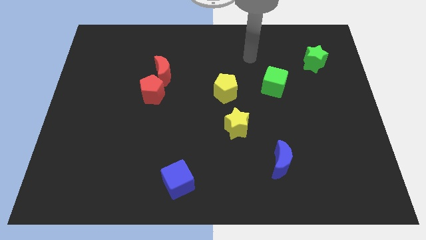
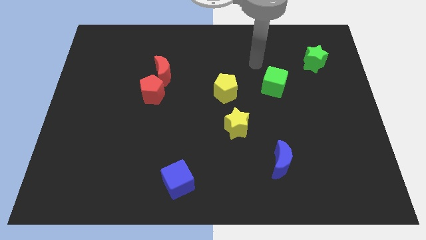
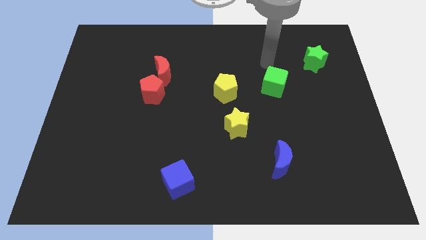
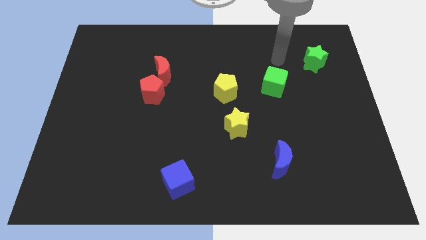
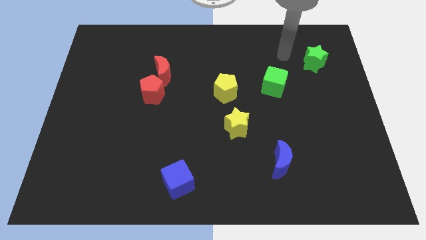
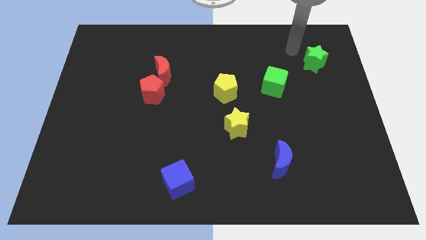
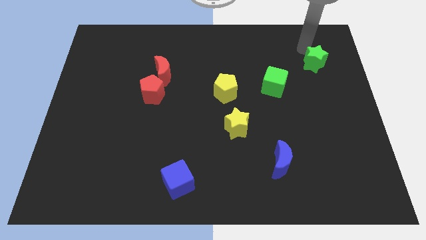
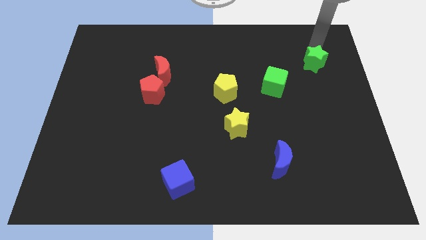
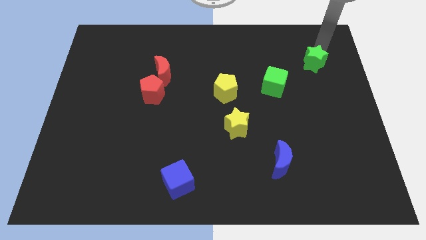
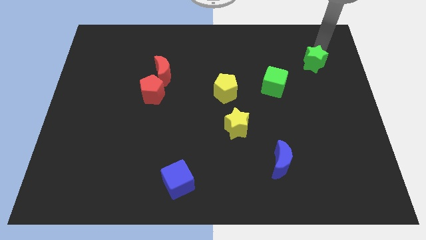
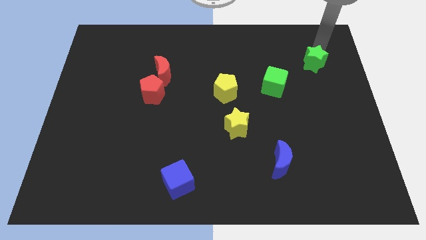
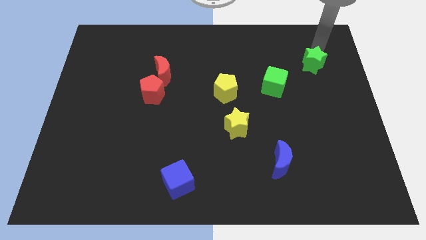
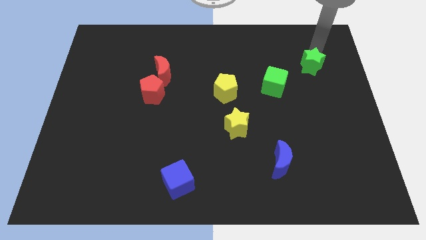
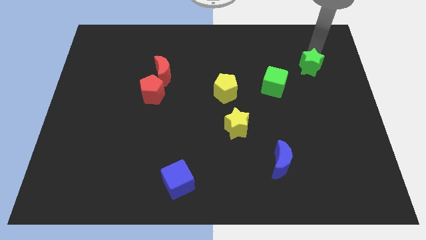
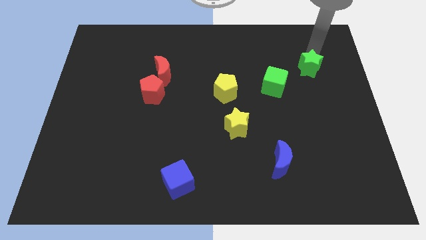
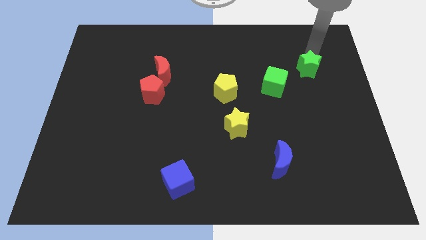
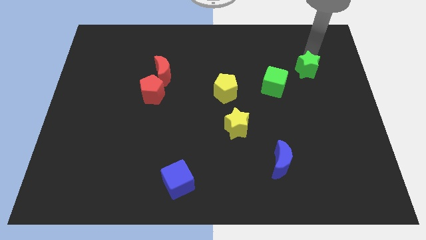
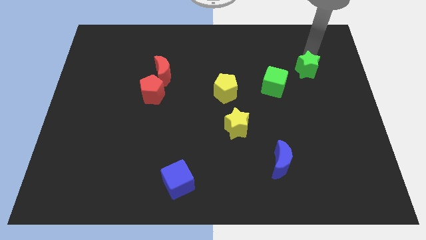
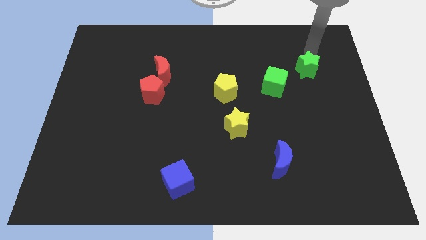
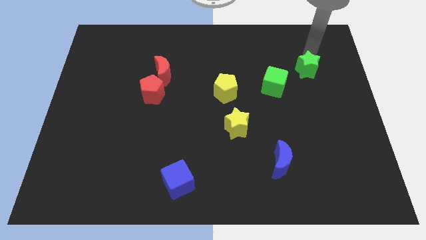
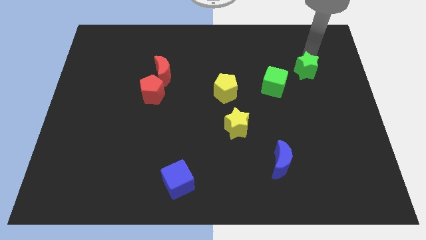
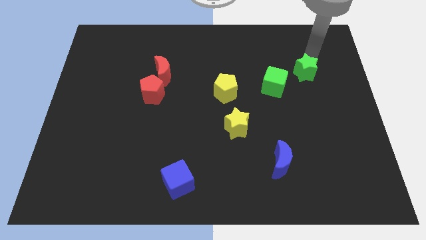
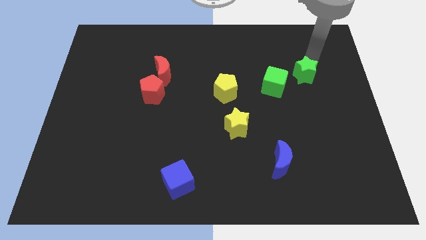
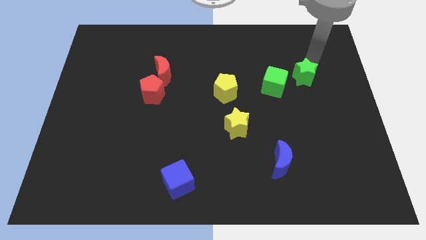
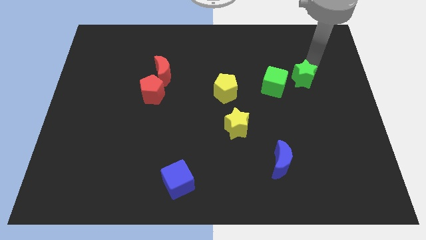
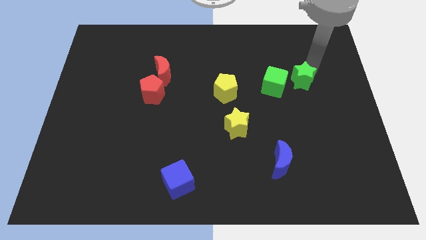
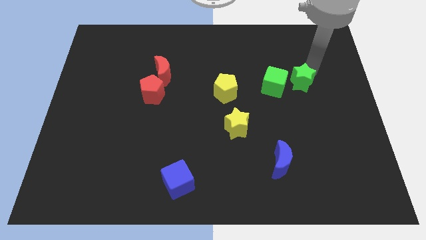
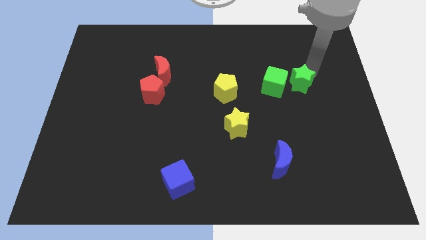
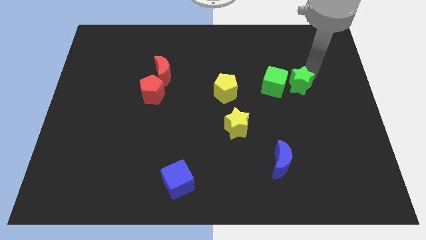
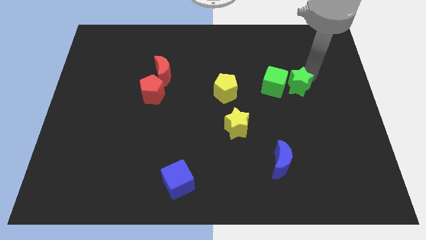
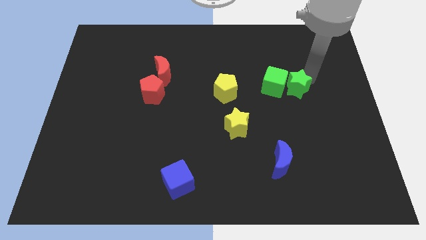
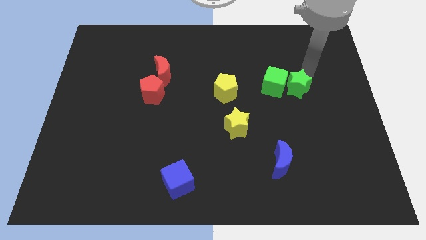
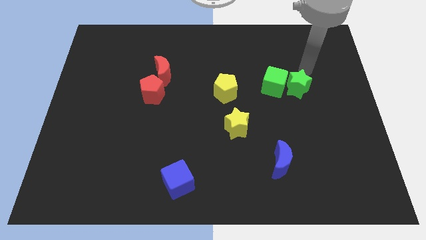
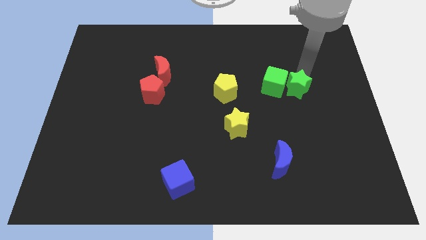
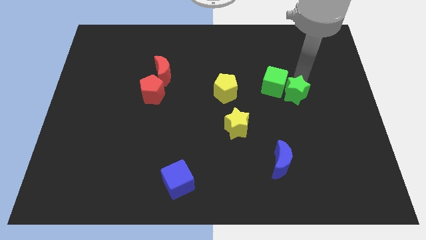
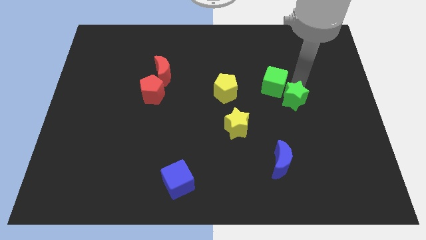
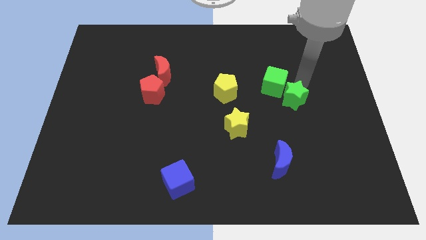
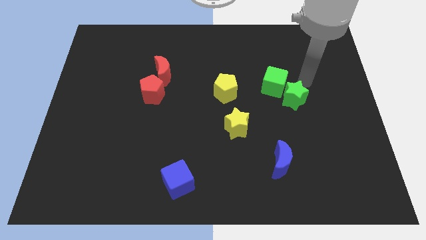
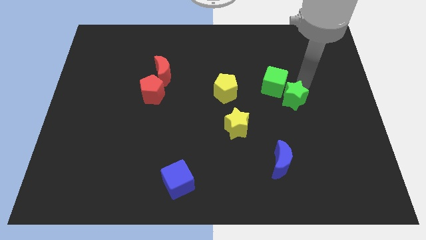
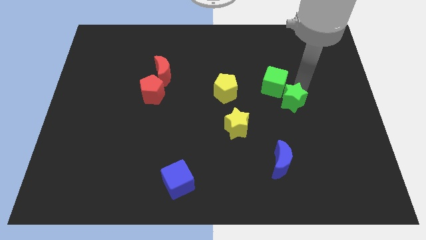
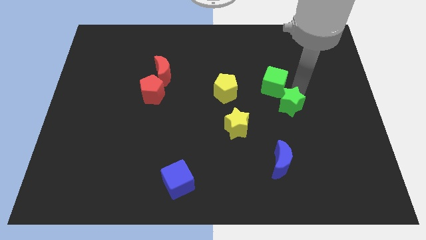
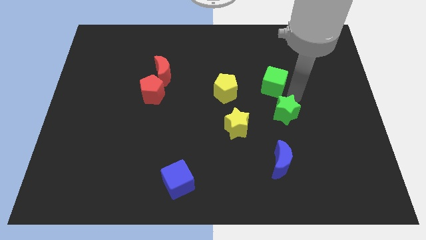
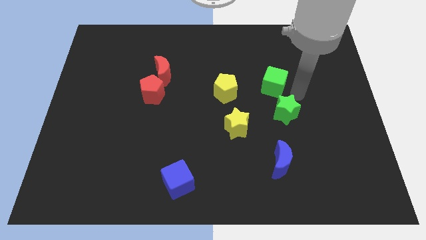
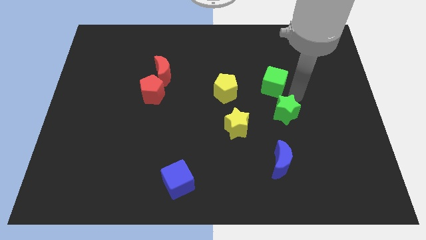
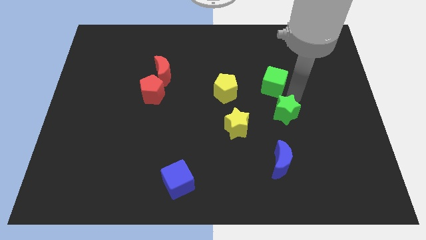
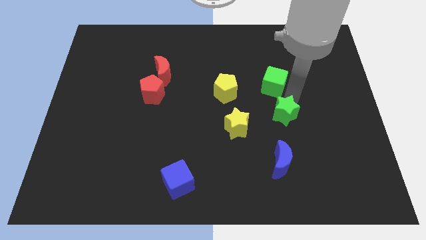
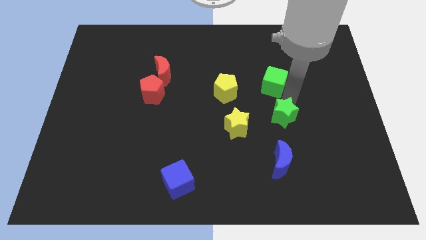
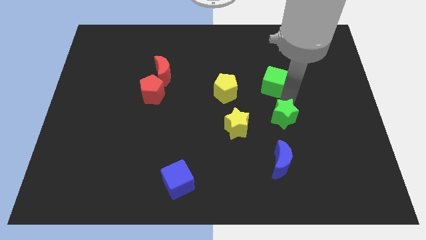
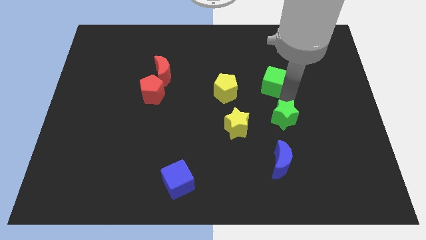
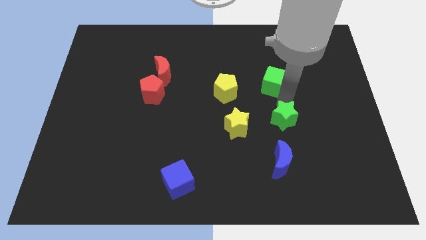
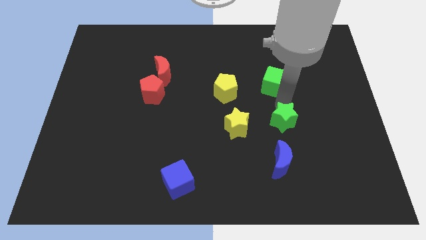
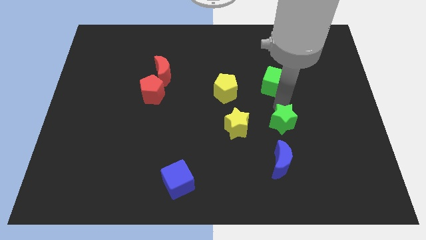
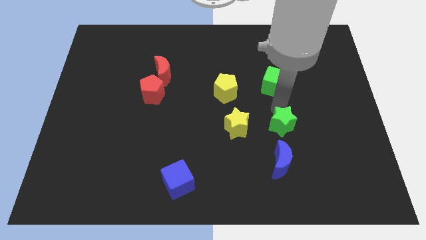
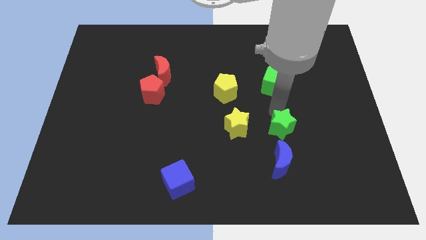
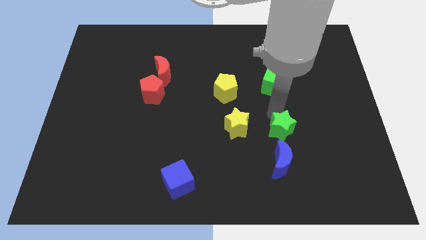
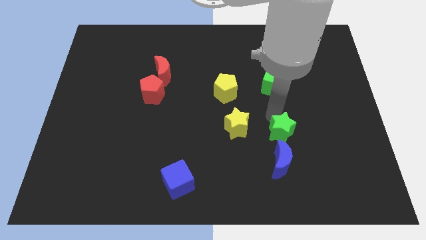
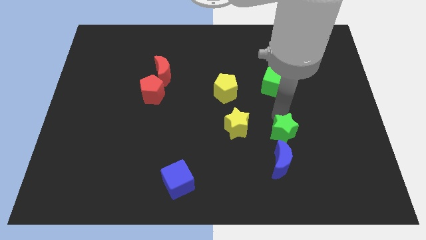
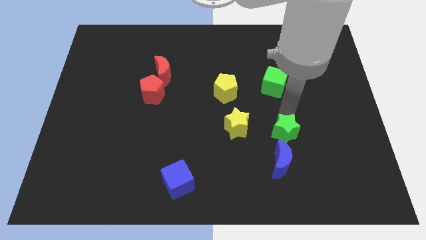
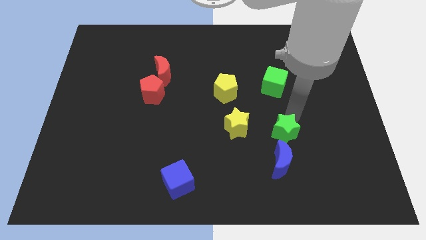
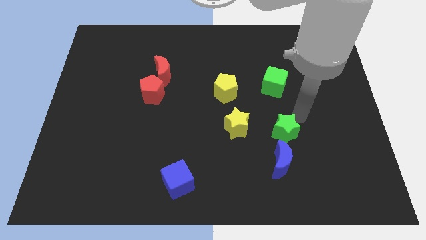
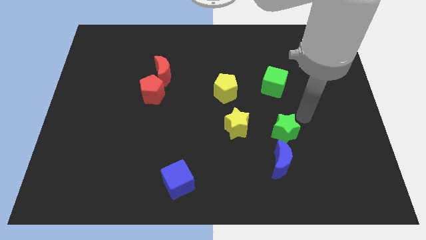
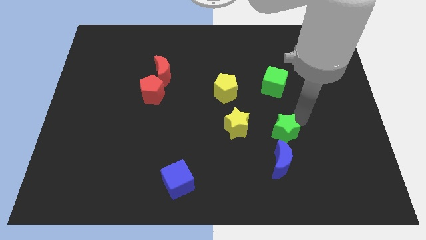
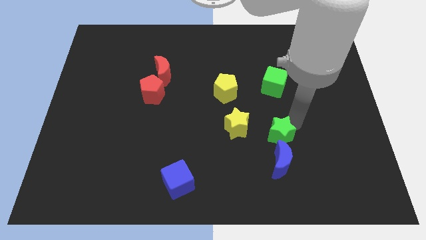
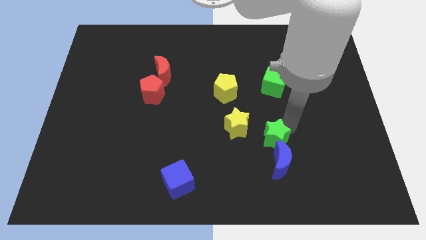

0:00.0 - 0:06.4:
move the green star to the bottom right of the yellow star

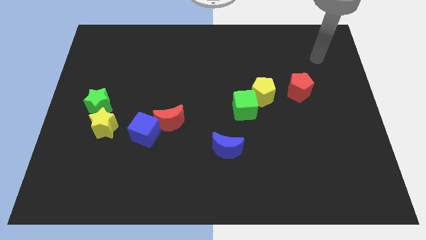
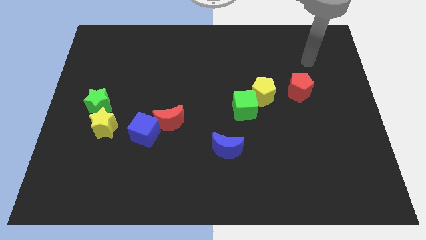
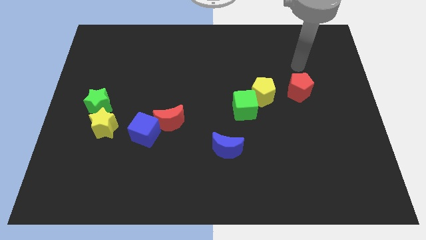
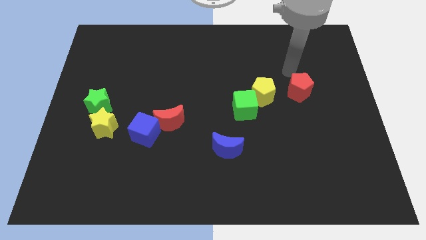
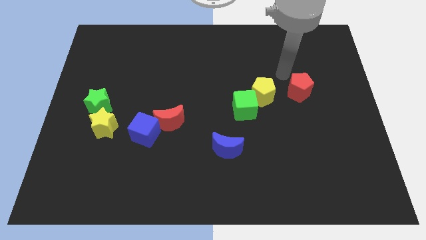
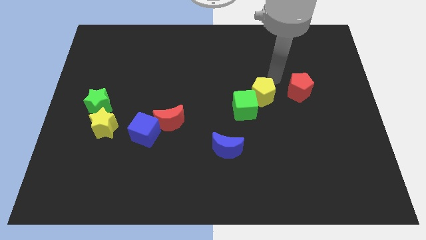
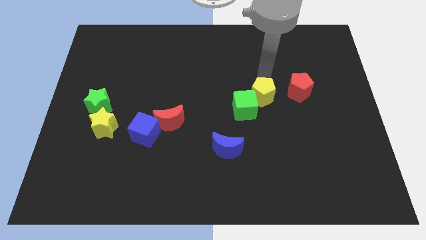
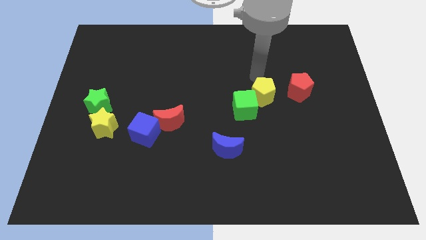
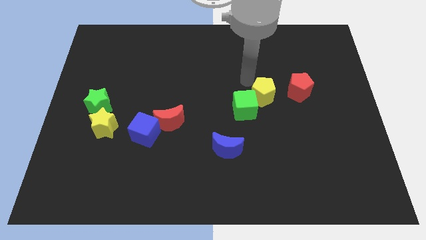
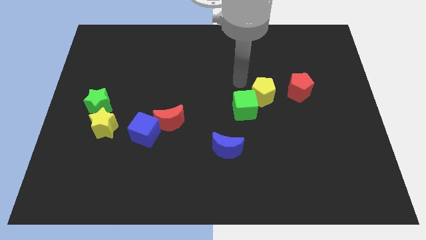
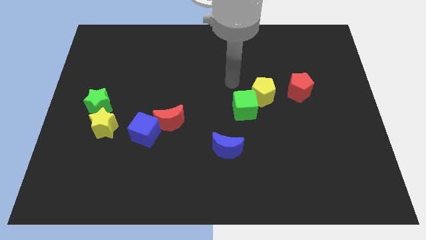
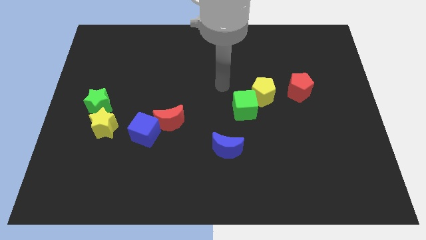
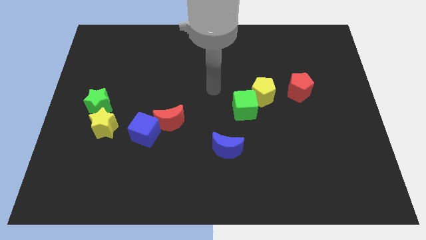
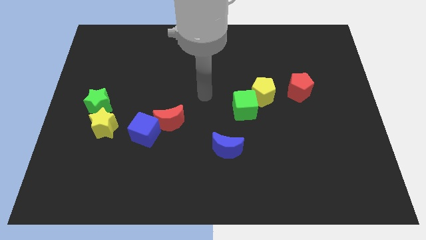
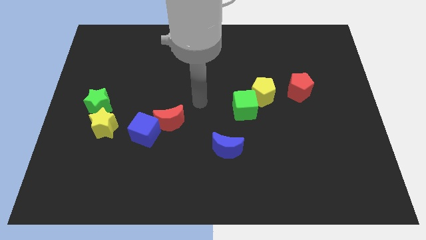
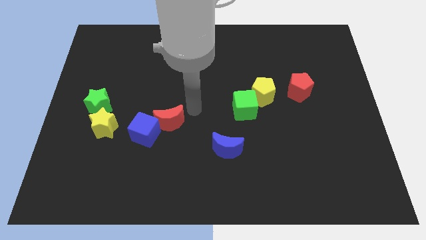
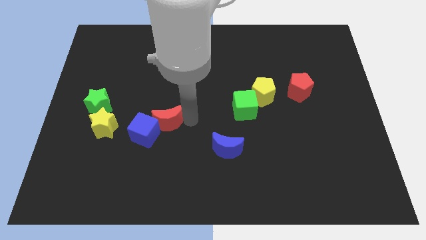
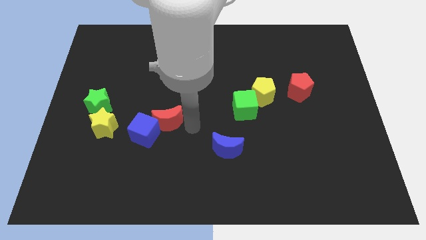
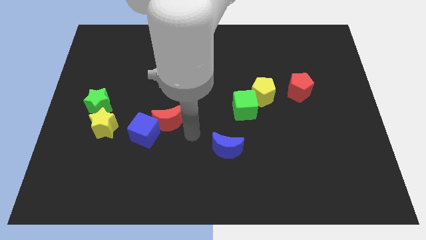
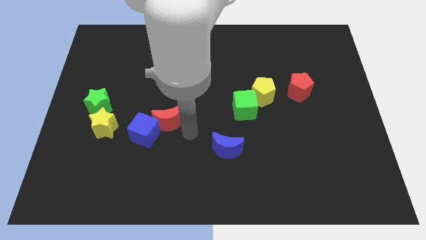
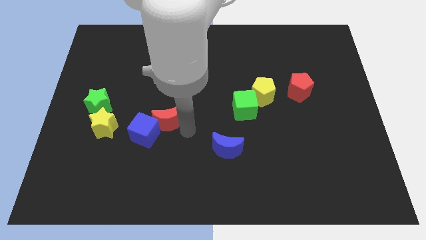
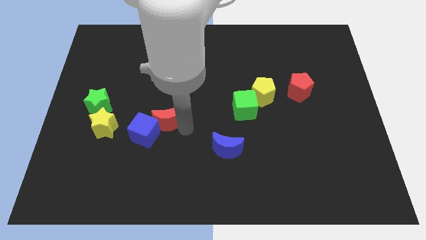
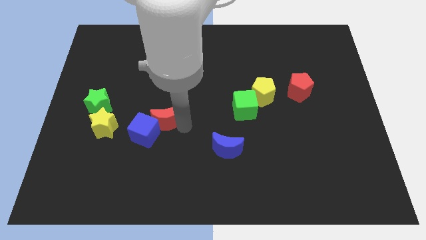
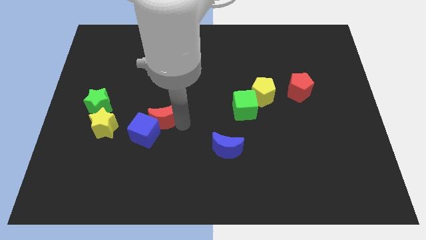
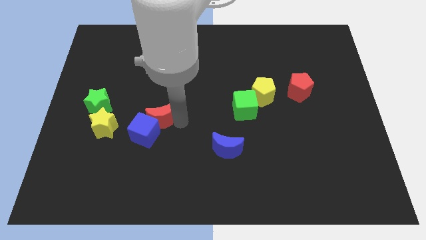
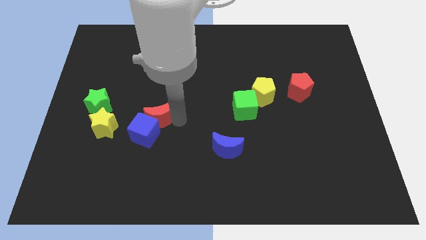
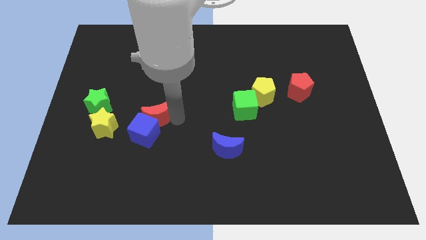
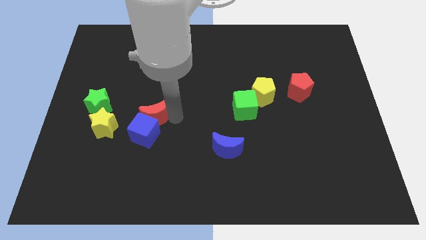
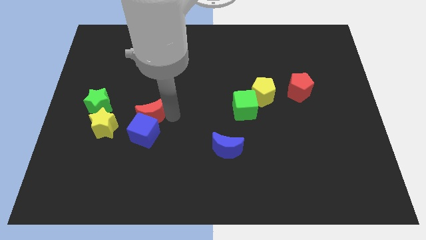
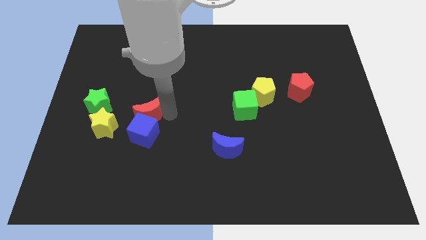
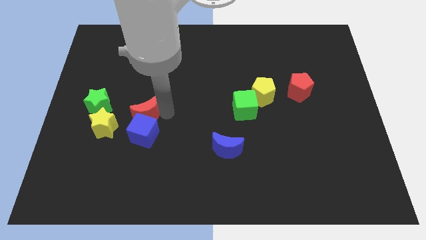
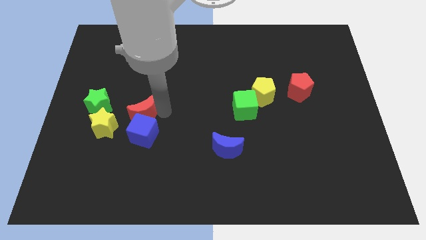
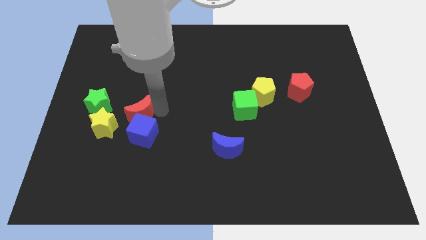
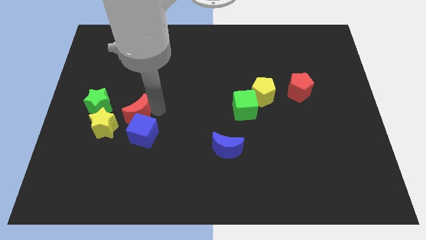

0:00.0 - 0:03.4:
slide the red moon to the bottom right of the green star
